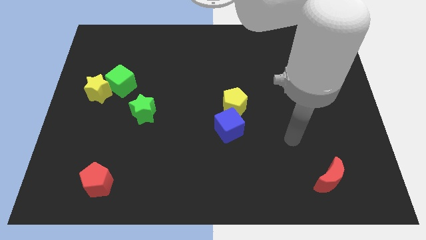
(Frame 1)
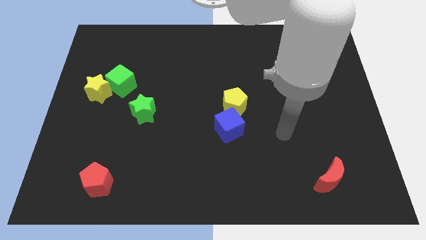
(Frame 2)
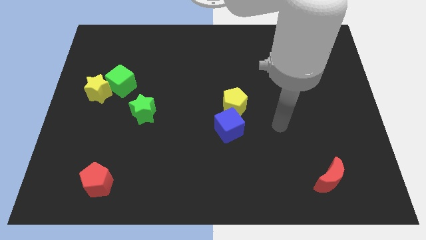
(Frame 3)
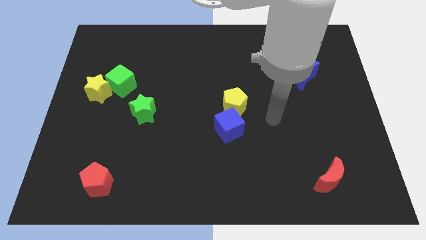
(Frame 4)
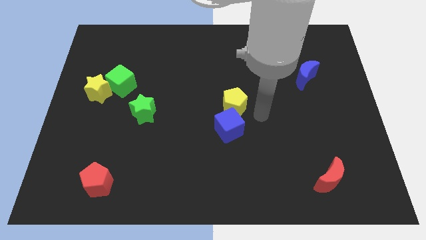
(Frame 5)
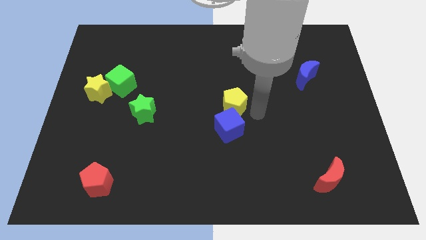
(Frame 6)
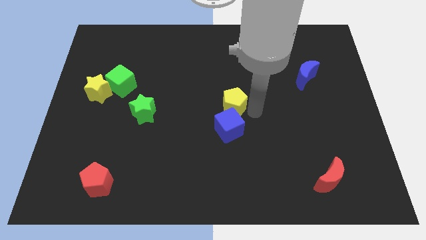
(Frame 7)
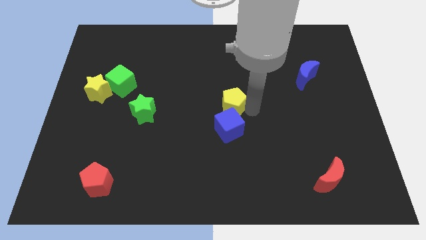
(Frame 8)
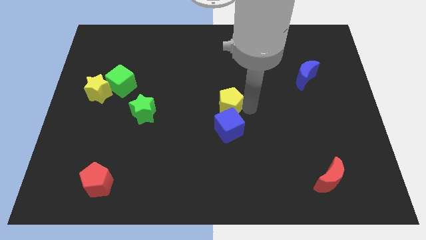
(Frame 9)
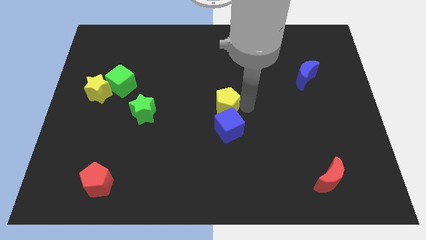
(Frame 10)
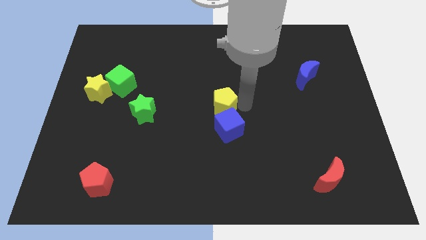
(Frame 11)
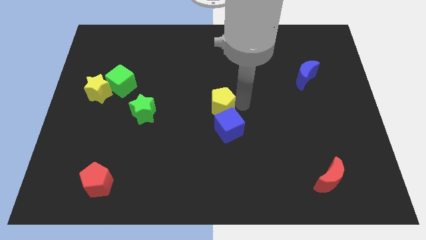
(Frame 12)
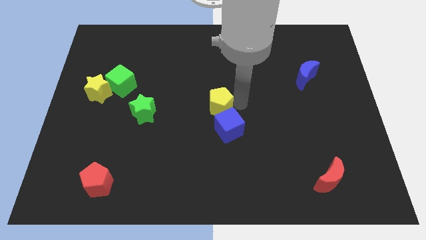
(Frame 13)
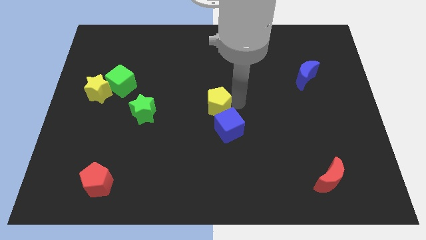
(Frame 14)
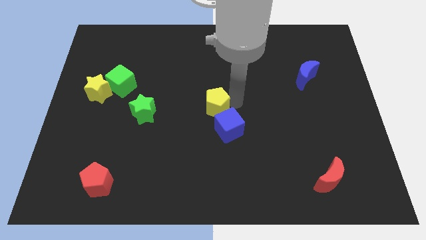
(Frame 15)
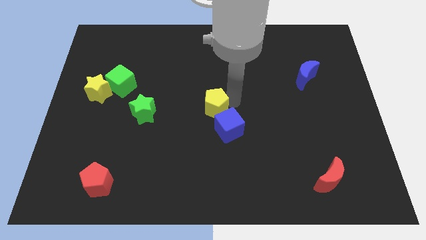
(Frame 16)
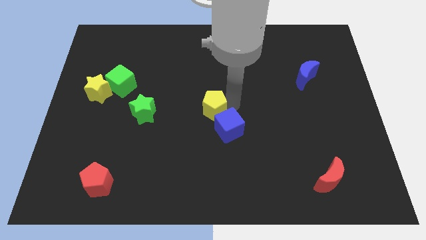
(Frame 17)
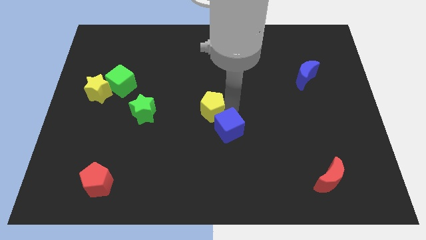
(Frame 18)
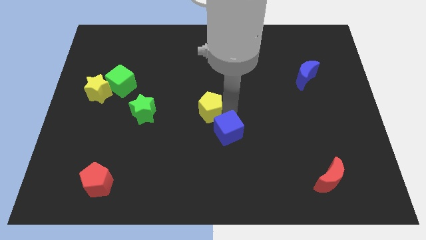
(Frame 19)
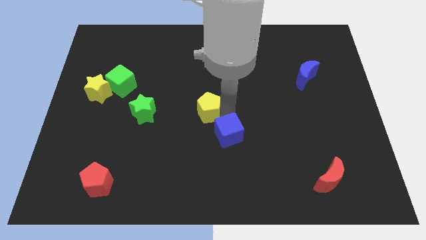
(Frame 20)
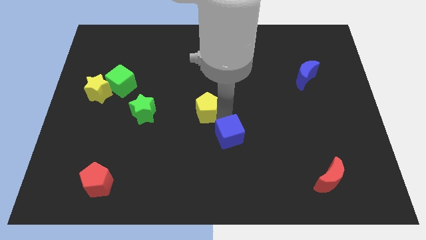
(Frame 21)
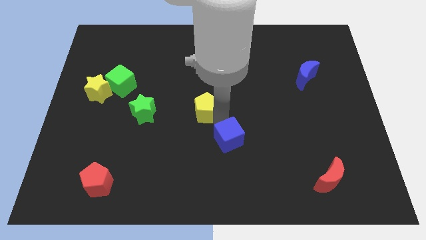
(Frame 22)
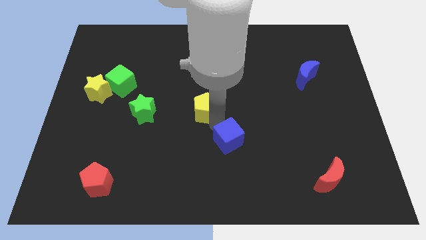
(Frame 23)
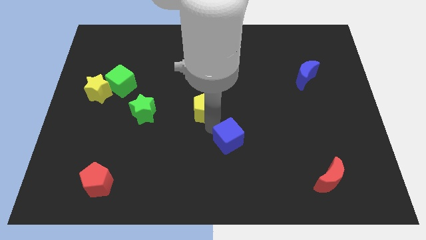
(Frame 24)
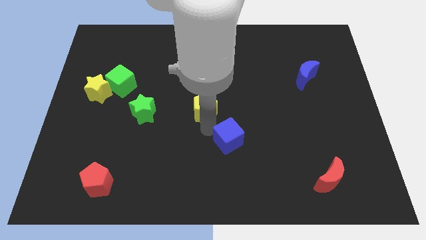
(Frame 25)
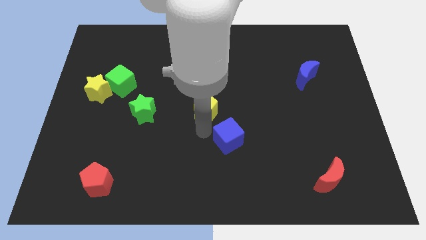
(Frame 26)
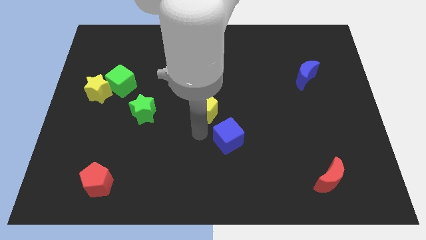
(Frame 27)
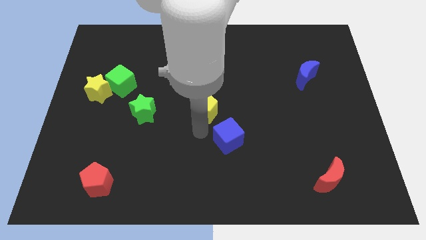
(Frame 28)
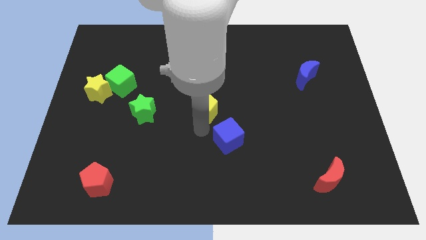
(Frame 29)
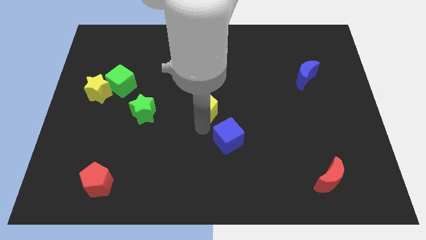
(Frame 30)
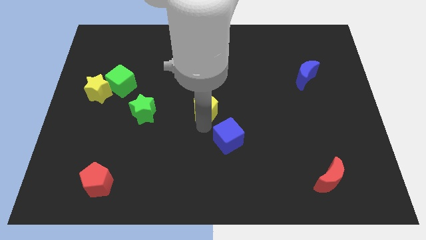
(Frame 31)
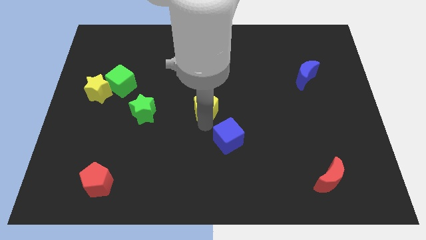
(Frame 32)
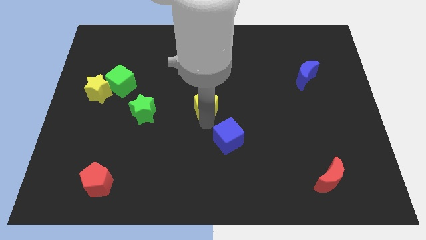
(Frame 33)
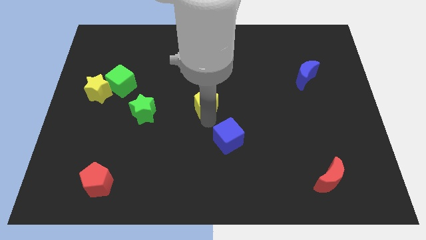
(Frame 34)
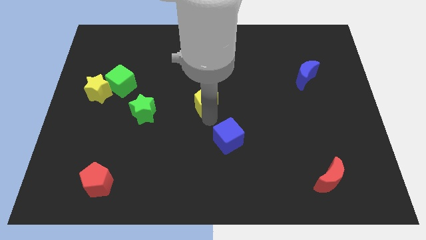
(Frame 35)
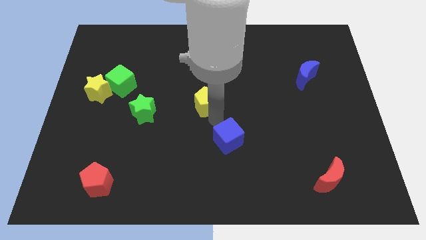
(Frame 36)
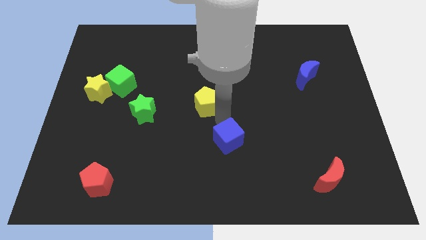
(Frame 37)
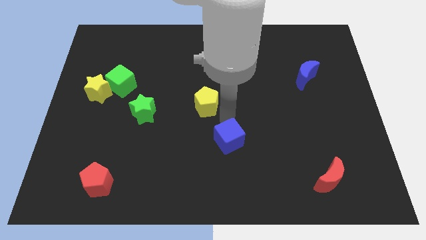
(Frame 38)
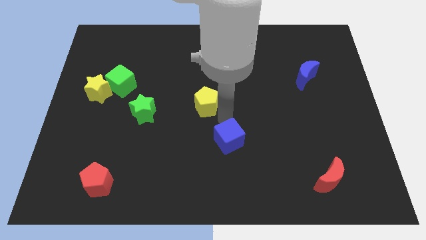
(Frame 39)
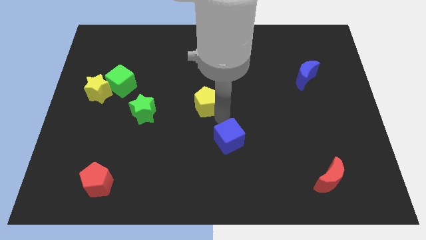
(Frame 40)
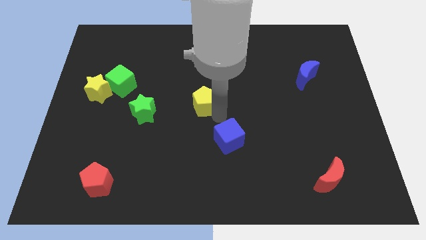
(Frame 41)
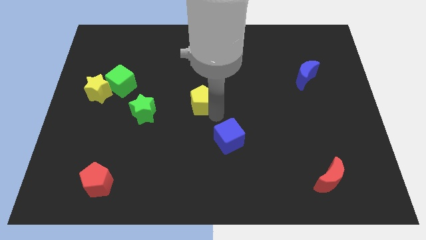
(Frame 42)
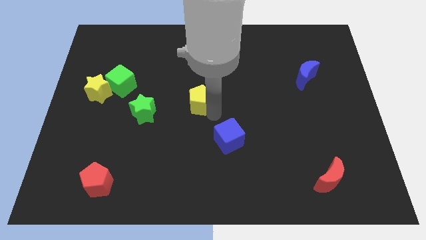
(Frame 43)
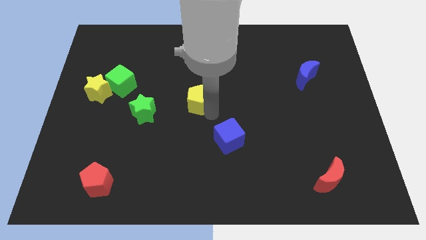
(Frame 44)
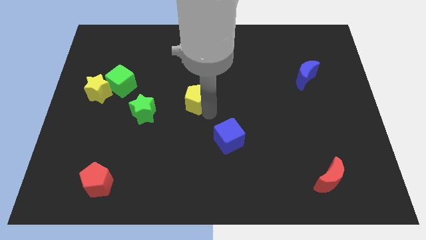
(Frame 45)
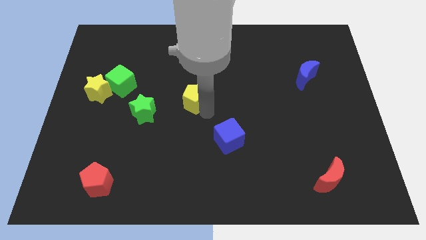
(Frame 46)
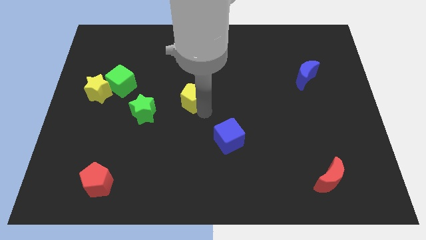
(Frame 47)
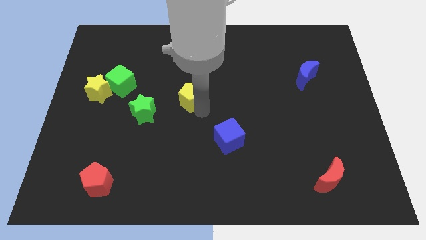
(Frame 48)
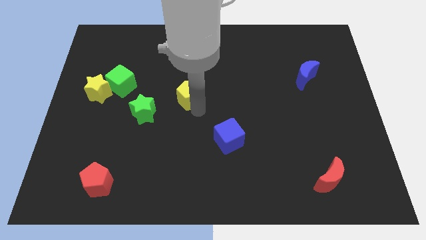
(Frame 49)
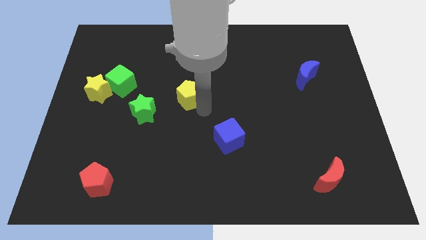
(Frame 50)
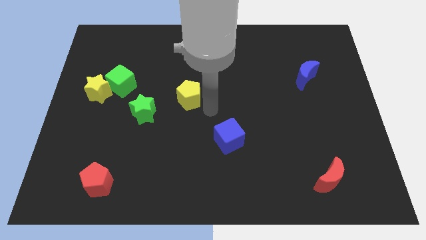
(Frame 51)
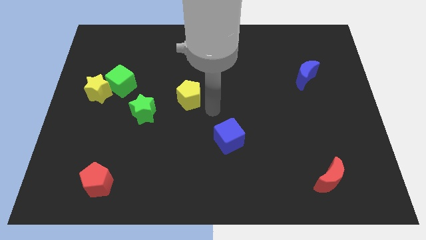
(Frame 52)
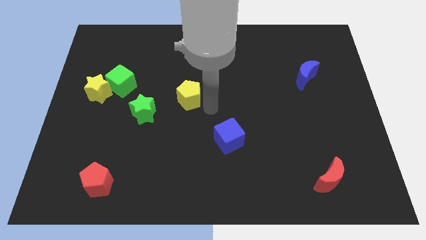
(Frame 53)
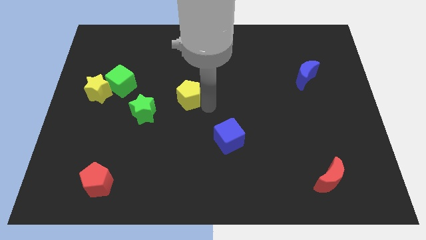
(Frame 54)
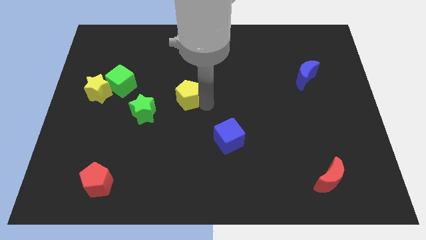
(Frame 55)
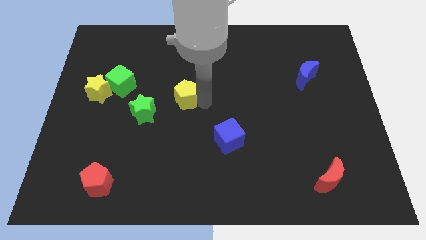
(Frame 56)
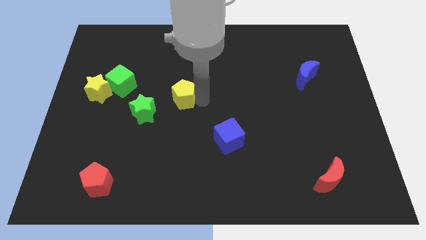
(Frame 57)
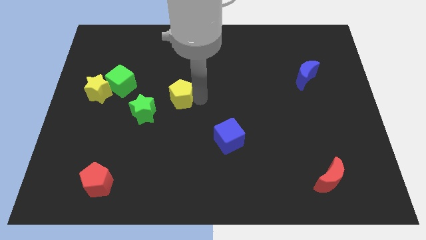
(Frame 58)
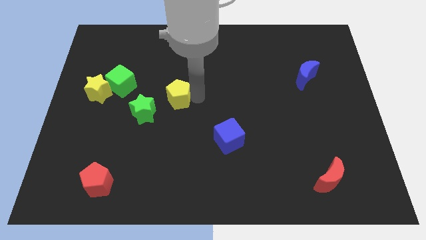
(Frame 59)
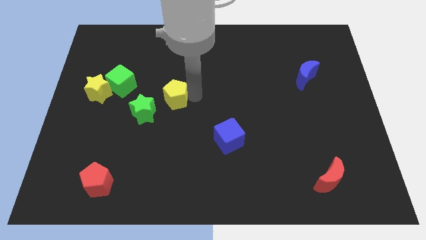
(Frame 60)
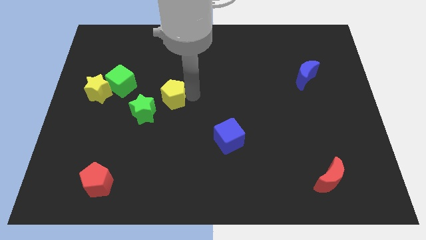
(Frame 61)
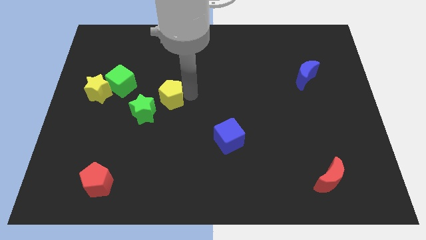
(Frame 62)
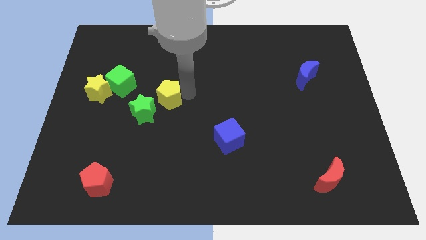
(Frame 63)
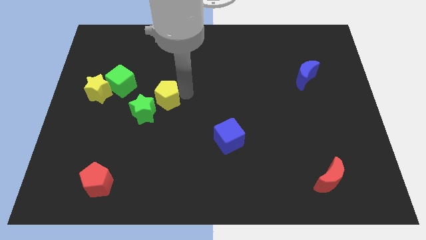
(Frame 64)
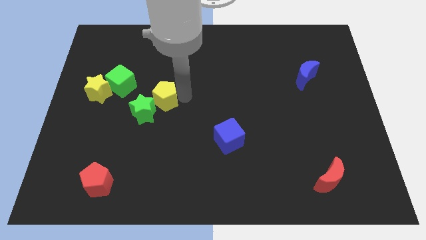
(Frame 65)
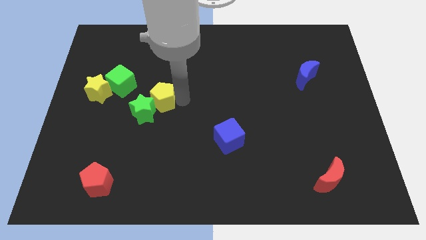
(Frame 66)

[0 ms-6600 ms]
slide the yellow pentagon above the green star
